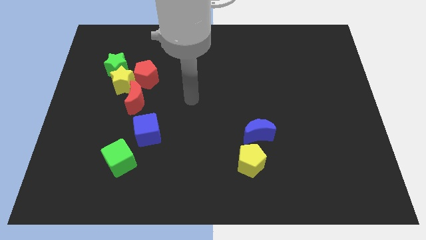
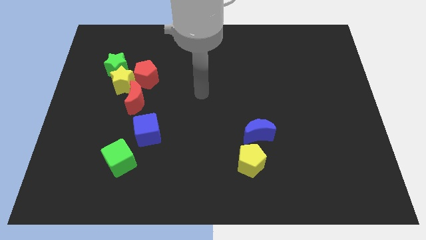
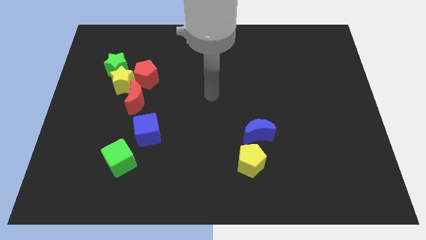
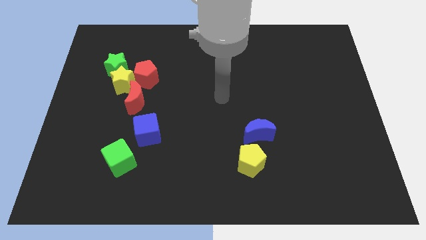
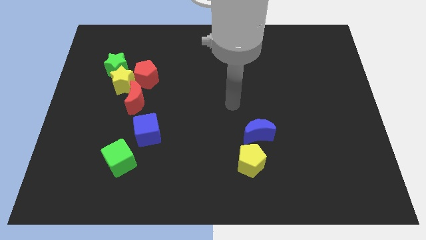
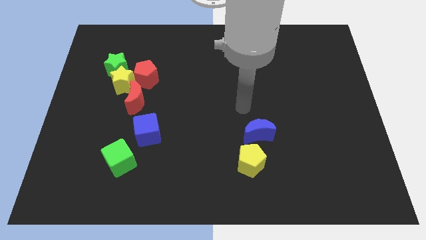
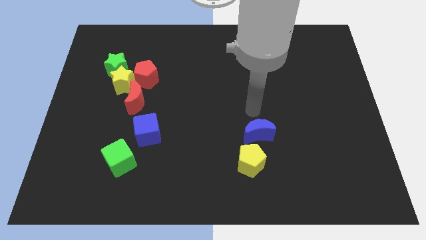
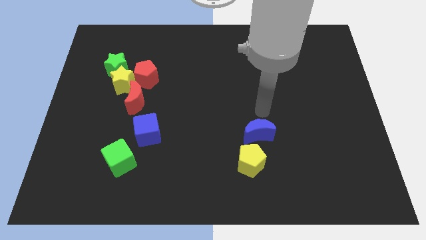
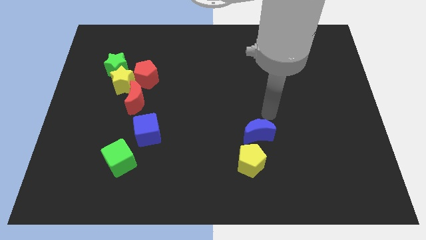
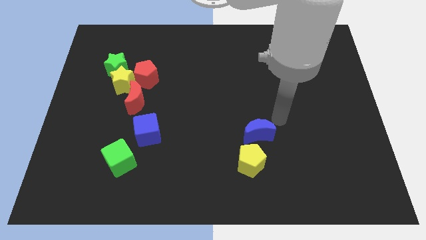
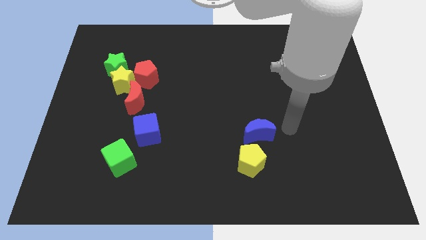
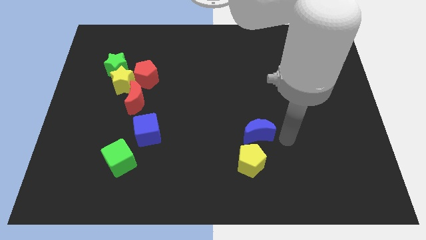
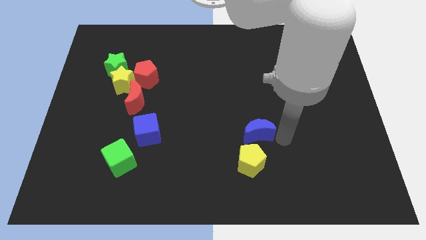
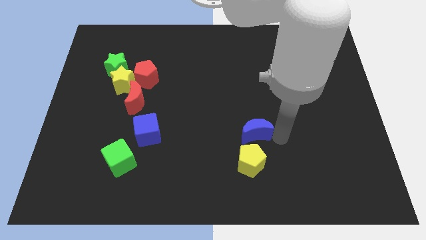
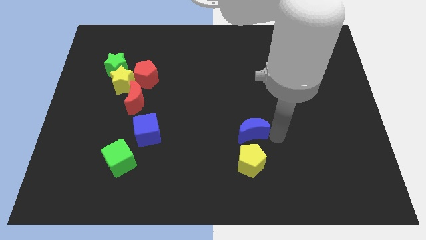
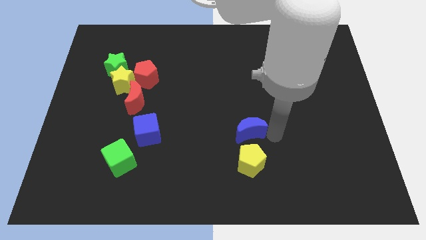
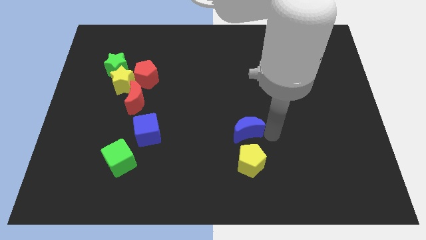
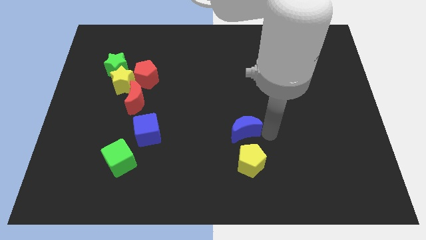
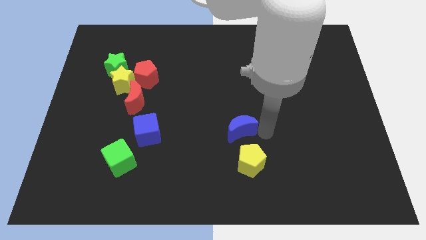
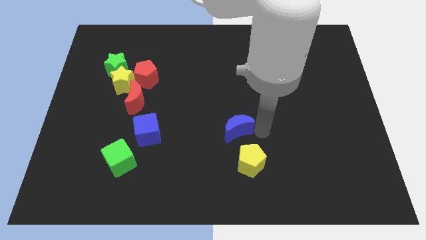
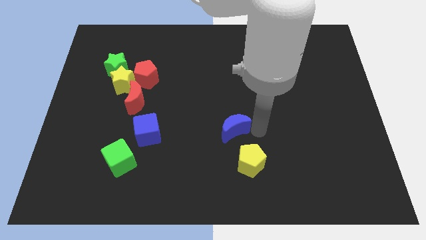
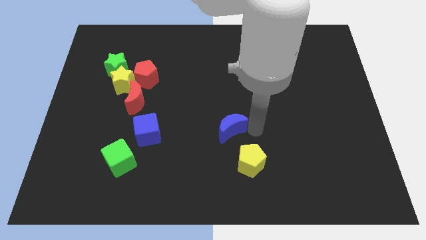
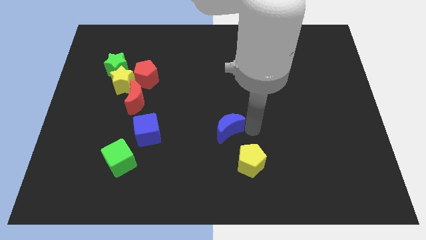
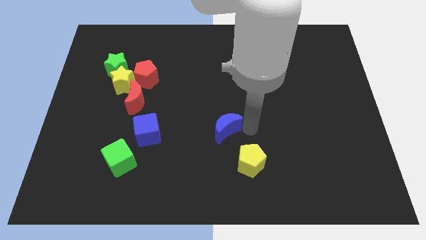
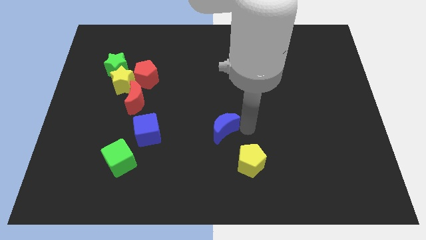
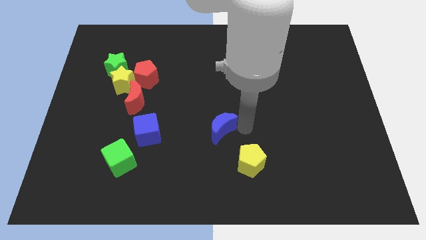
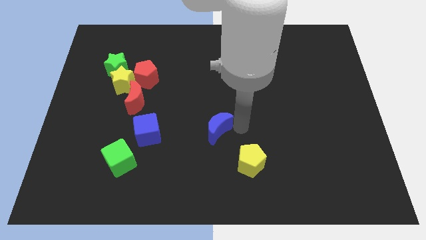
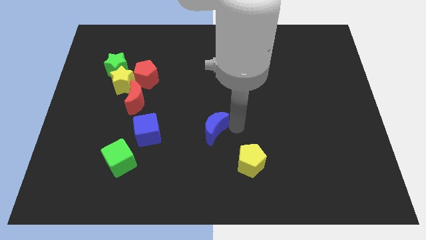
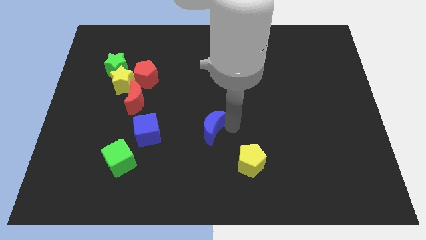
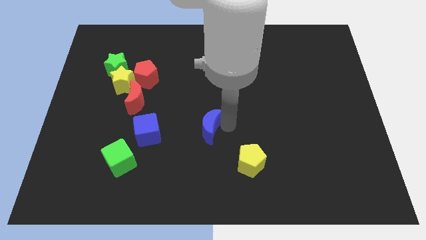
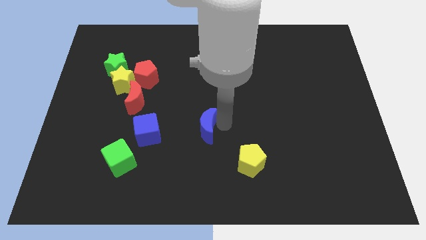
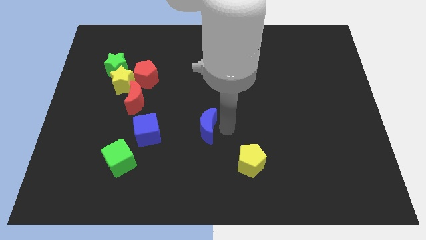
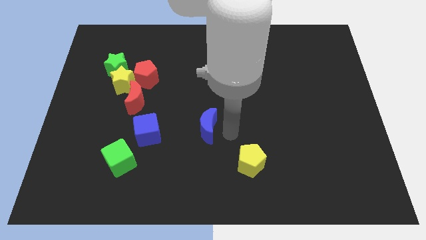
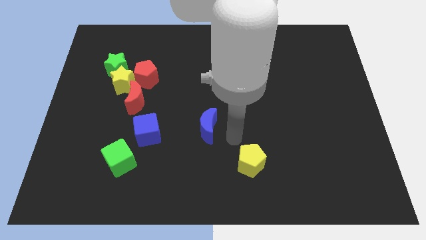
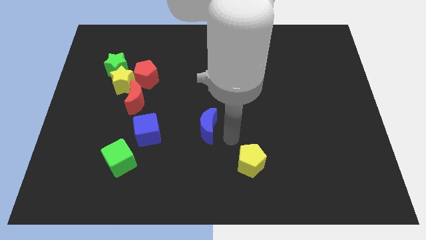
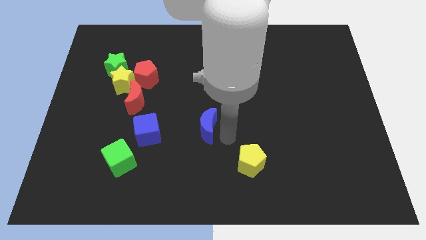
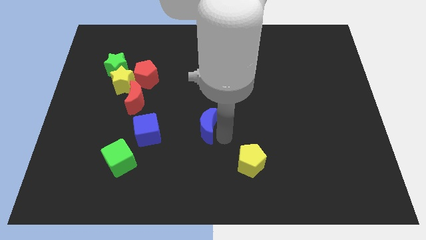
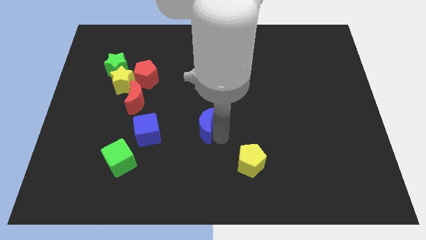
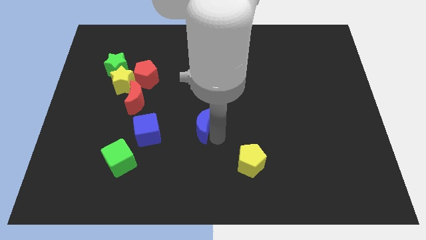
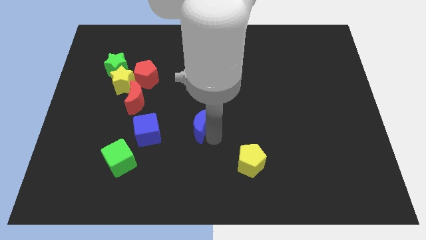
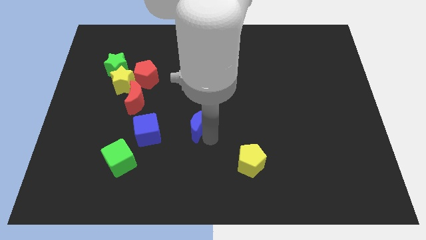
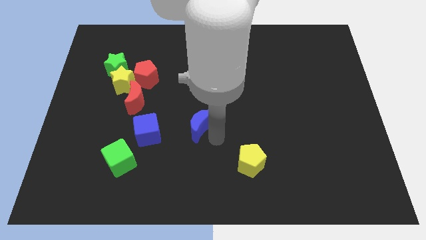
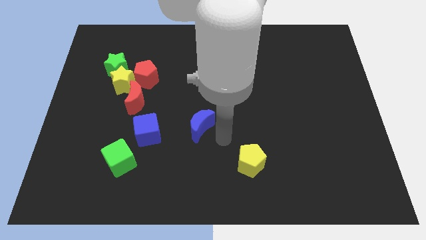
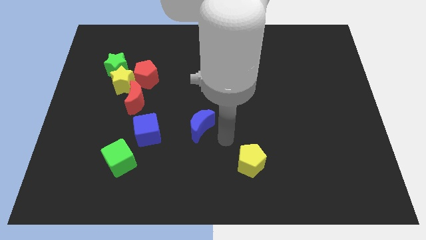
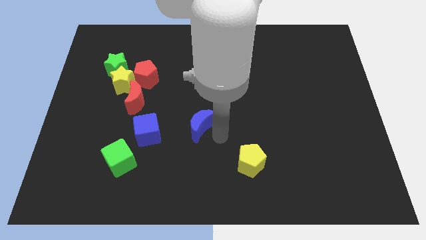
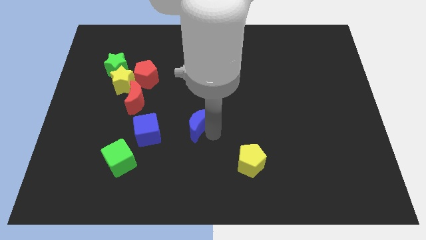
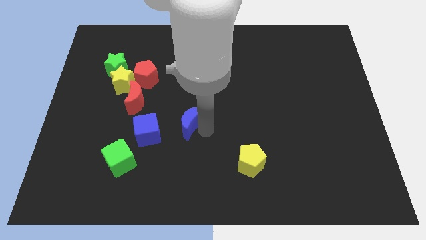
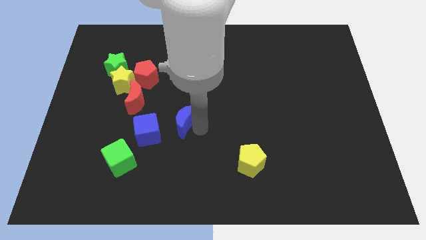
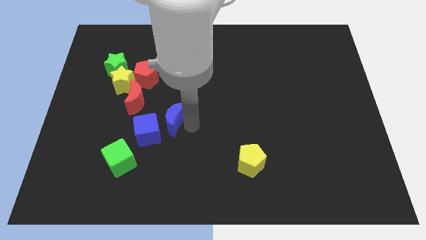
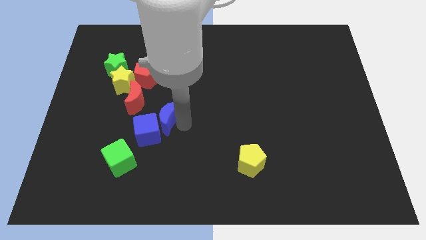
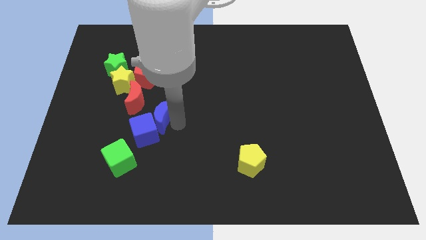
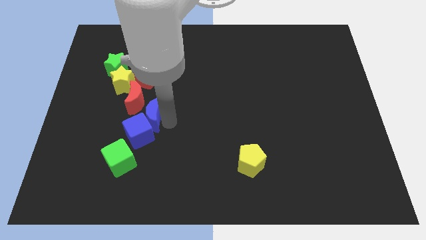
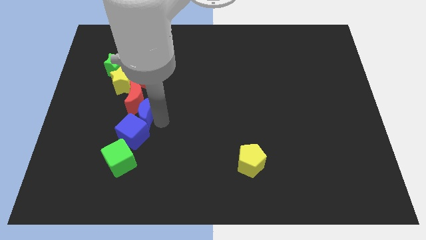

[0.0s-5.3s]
move the blue moon next to the red moon

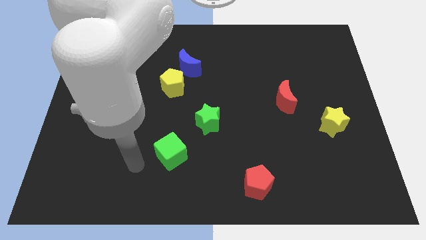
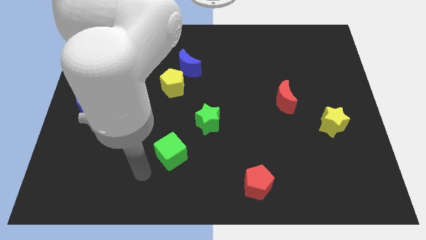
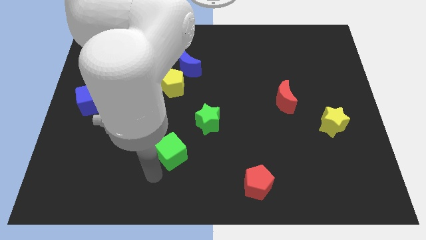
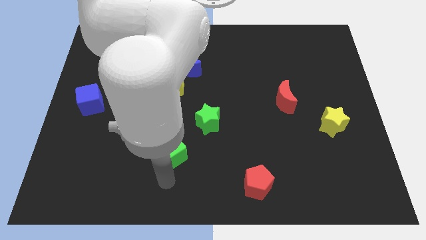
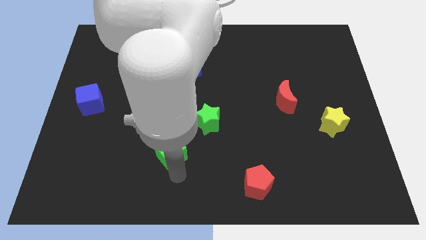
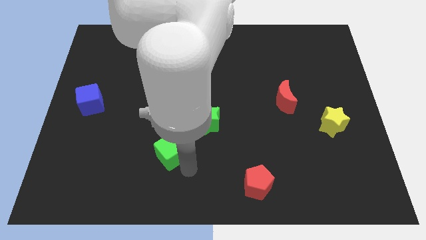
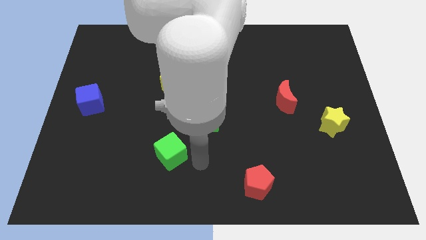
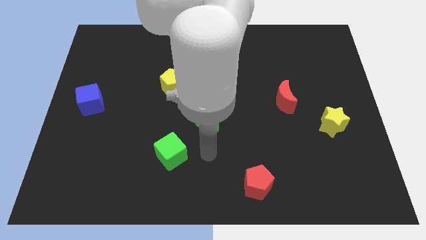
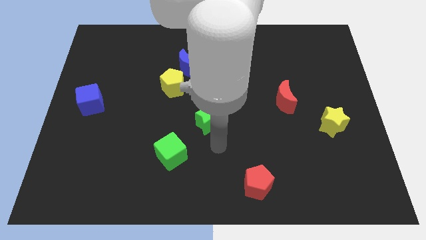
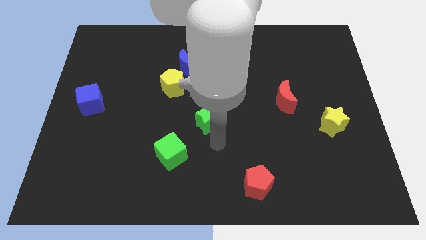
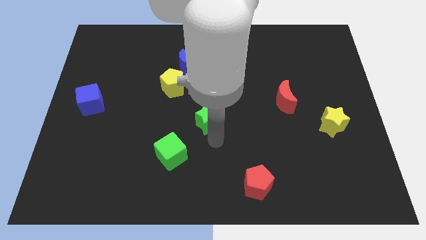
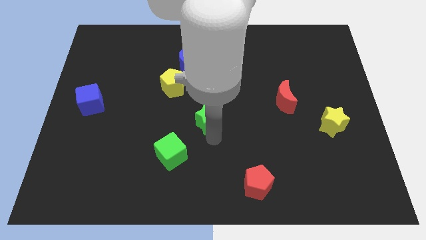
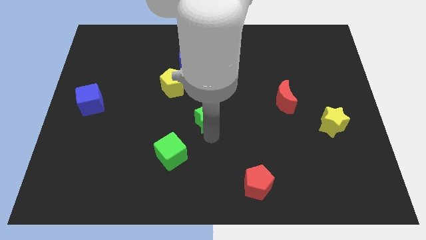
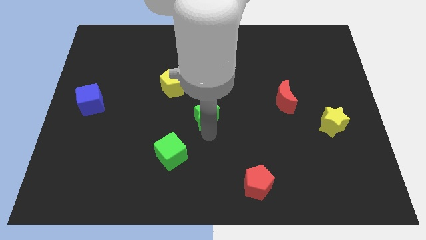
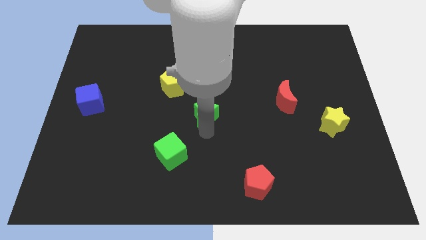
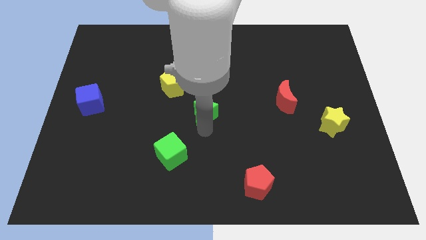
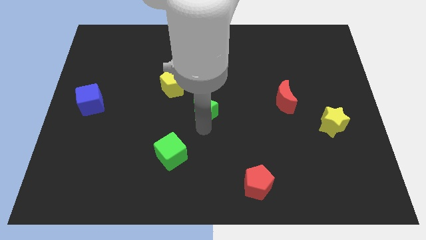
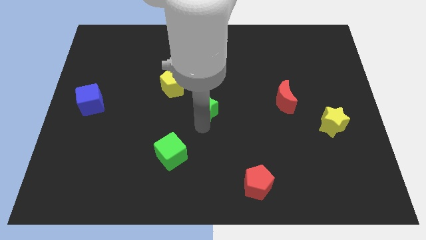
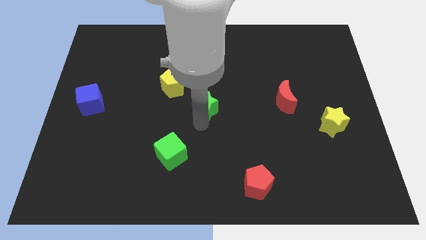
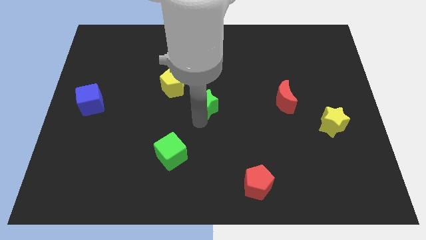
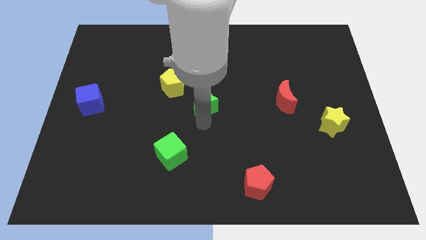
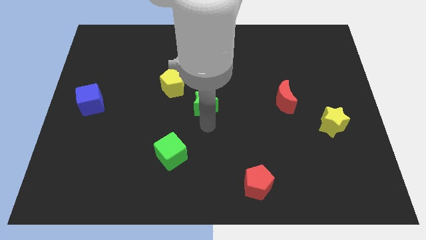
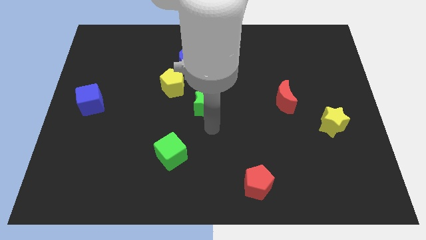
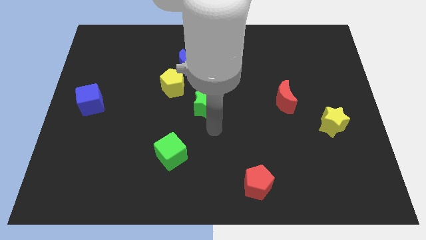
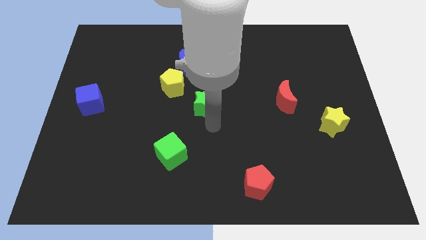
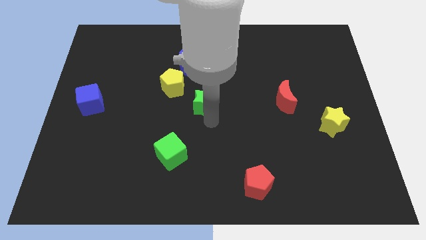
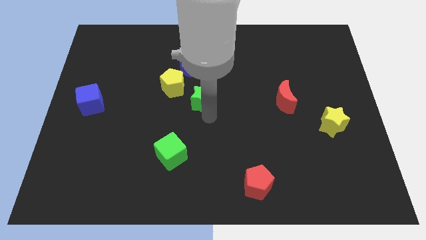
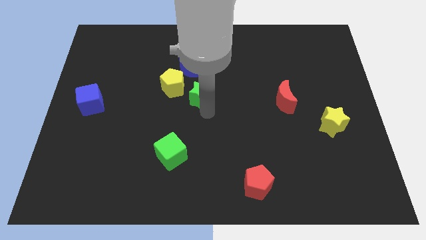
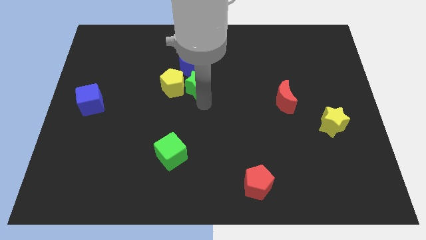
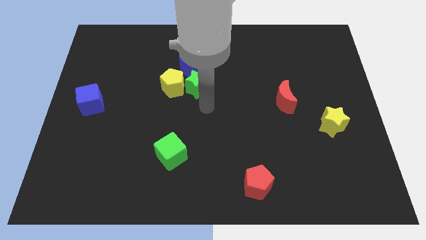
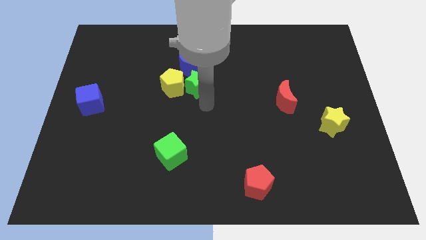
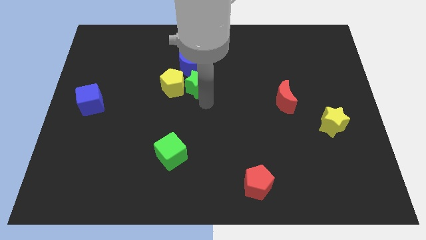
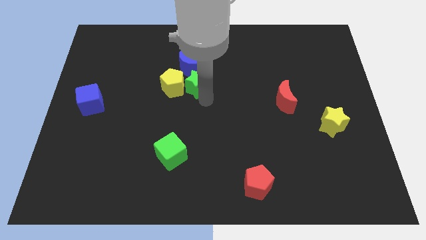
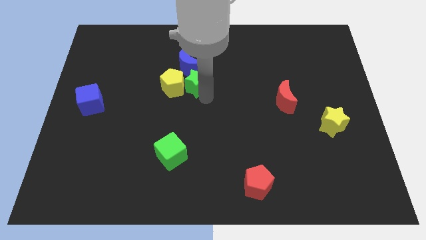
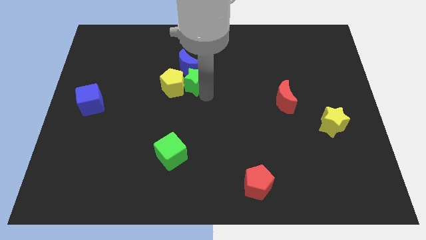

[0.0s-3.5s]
put the green star towards the blue moon
